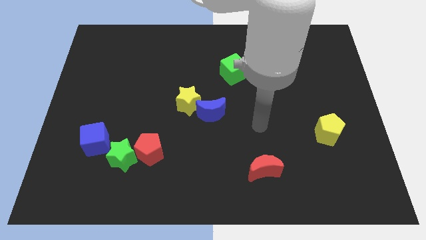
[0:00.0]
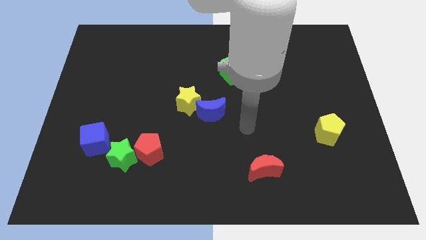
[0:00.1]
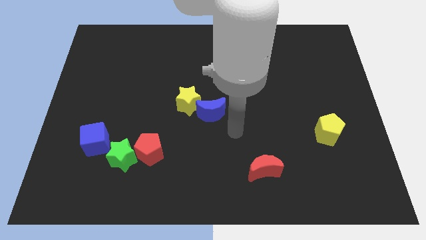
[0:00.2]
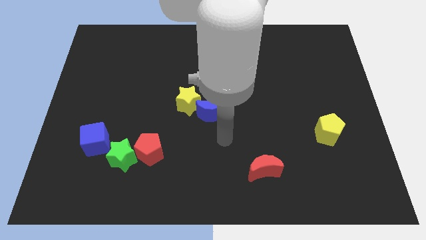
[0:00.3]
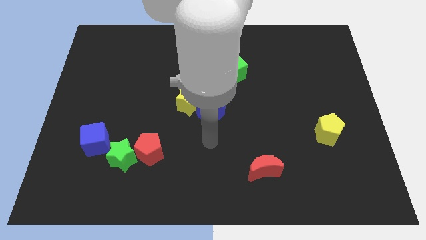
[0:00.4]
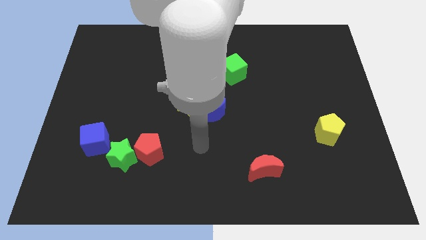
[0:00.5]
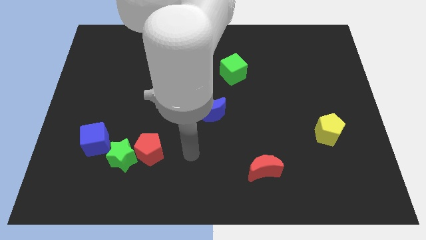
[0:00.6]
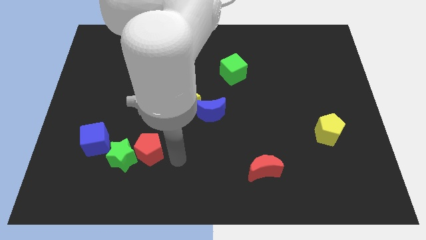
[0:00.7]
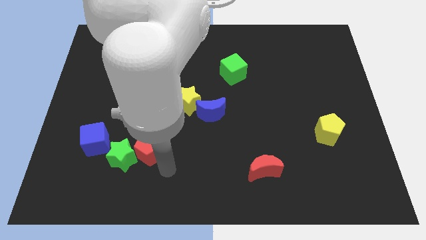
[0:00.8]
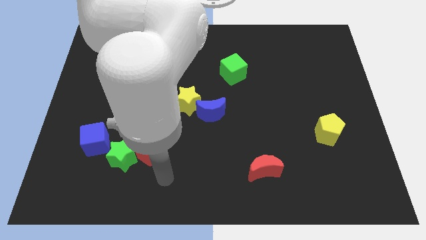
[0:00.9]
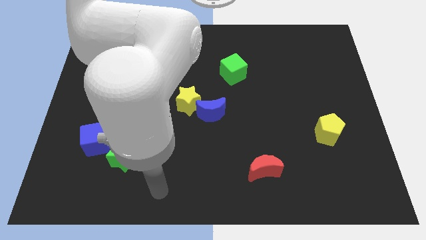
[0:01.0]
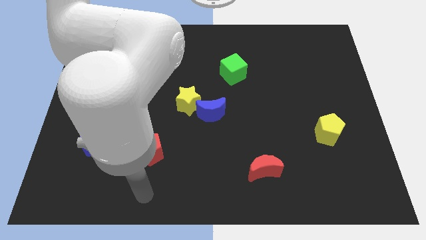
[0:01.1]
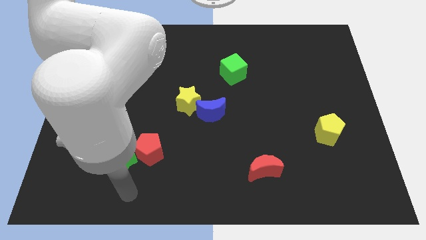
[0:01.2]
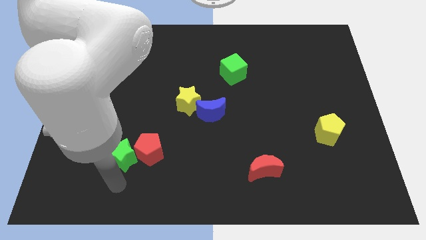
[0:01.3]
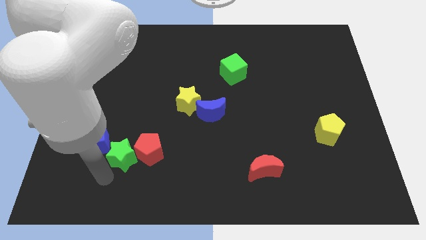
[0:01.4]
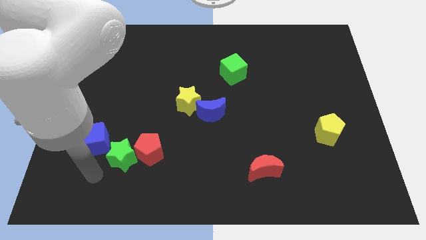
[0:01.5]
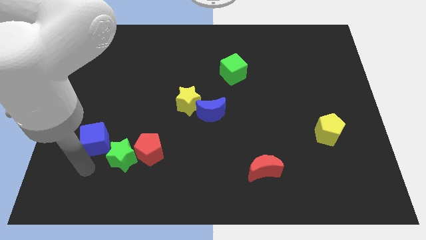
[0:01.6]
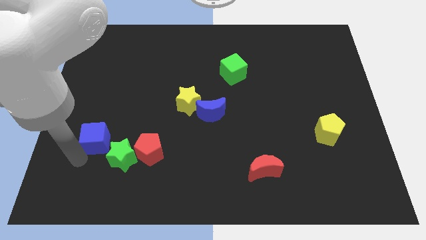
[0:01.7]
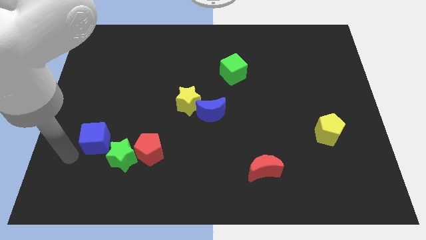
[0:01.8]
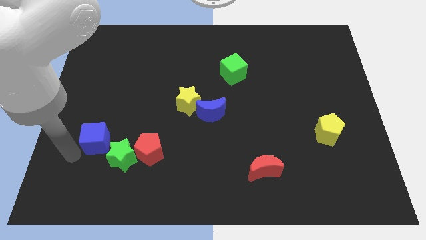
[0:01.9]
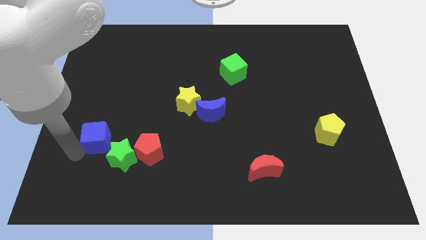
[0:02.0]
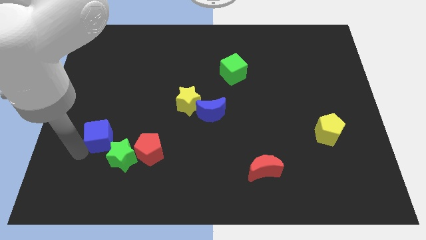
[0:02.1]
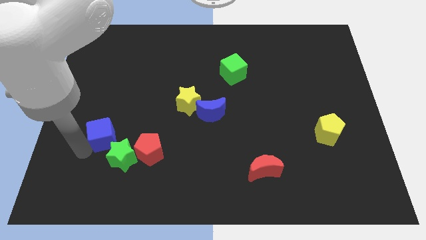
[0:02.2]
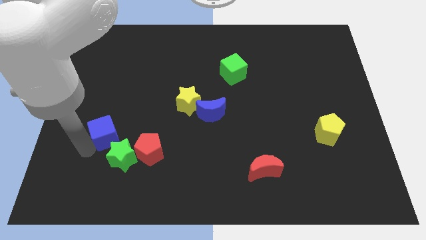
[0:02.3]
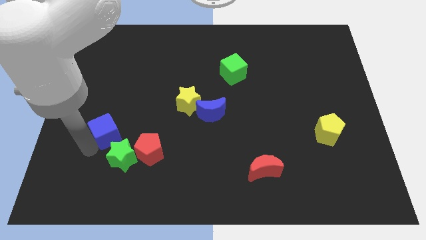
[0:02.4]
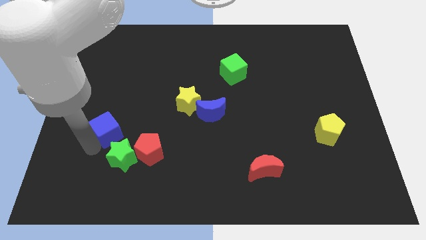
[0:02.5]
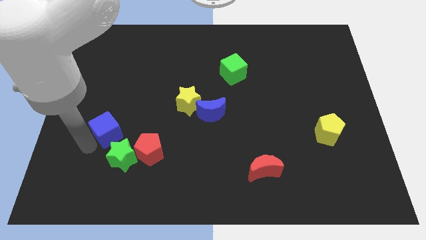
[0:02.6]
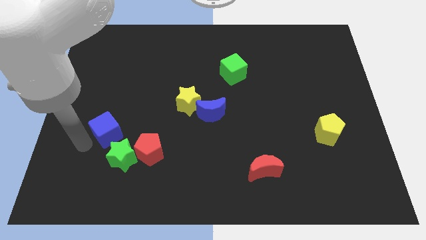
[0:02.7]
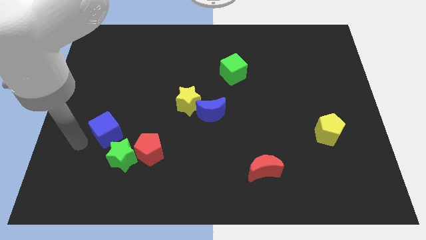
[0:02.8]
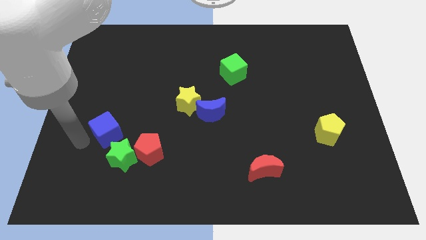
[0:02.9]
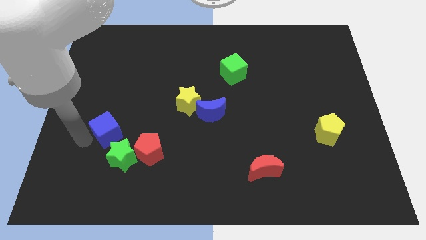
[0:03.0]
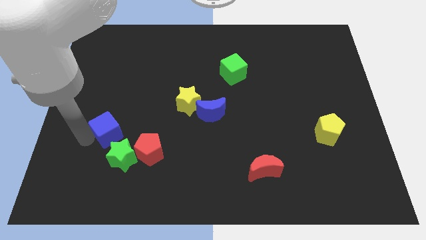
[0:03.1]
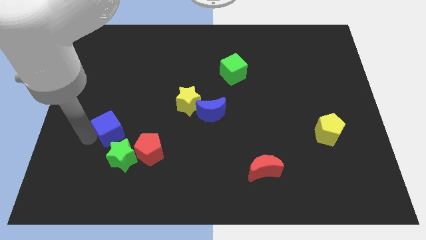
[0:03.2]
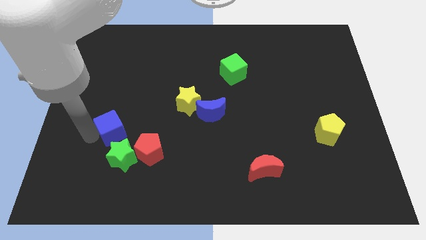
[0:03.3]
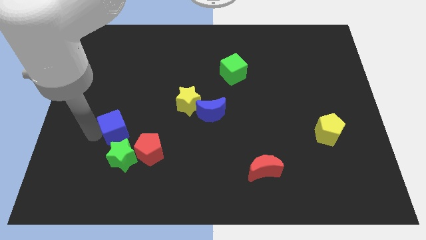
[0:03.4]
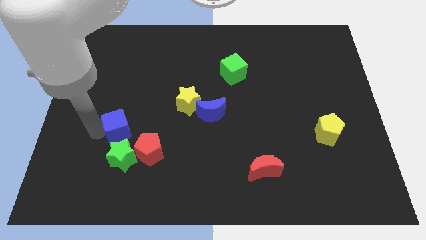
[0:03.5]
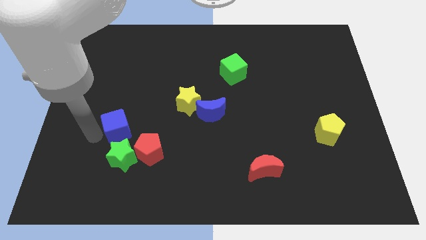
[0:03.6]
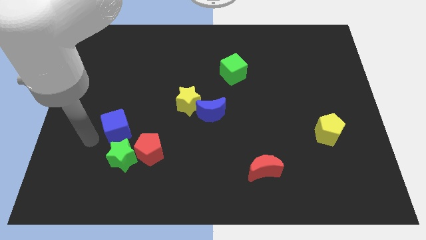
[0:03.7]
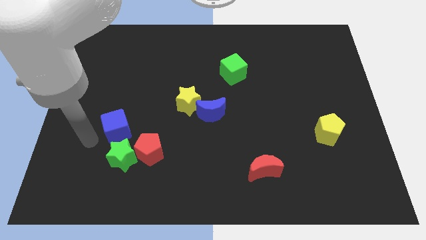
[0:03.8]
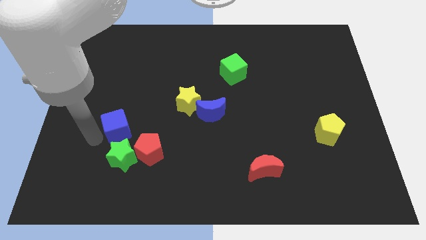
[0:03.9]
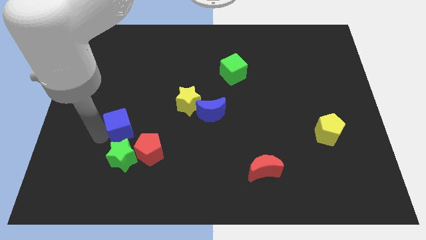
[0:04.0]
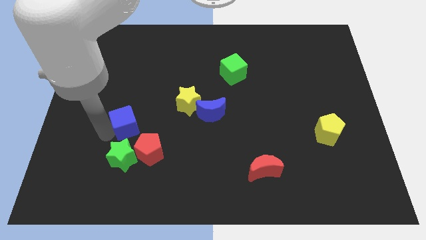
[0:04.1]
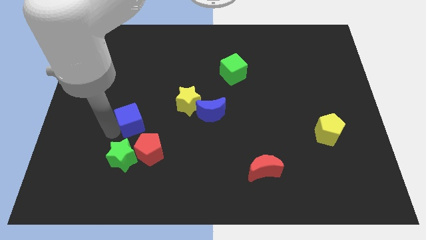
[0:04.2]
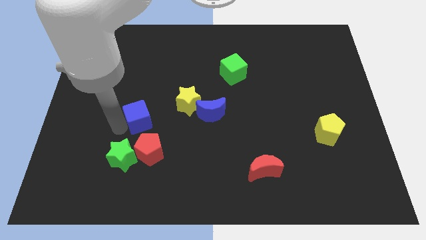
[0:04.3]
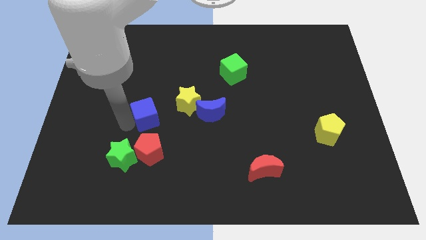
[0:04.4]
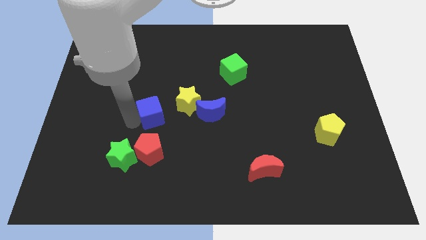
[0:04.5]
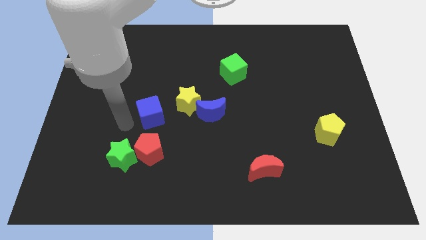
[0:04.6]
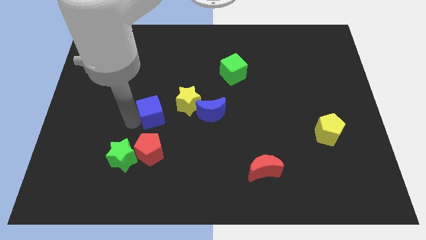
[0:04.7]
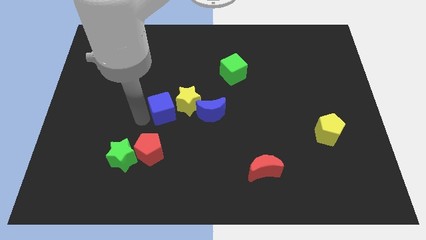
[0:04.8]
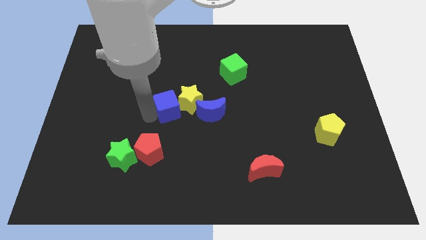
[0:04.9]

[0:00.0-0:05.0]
slide the blue cube close to the yellow star

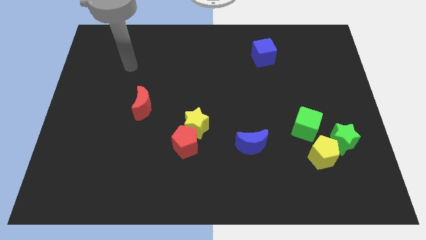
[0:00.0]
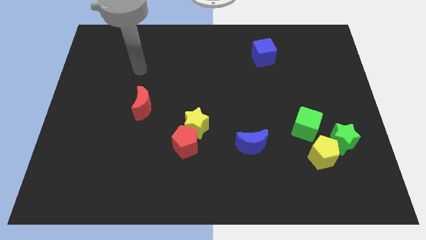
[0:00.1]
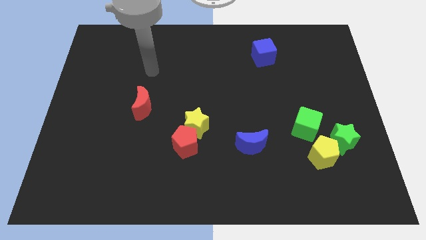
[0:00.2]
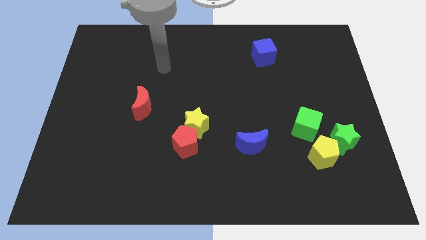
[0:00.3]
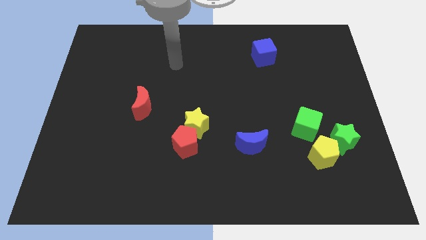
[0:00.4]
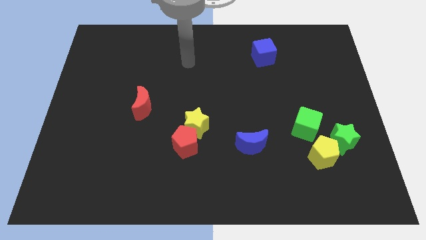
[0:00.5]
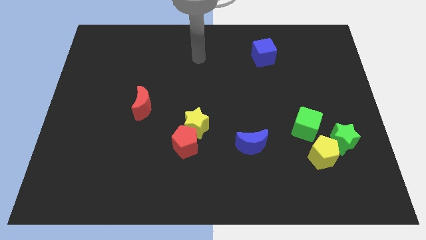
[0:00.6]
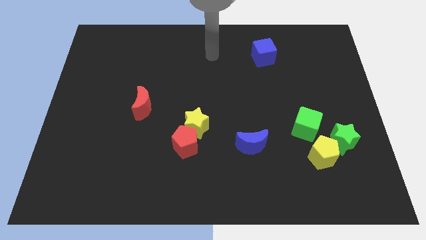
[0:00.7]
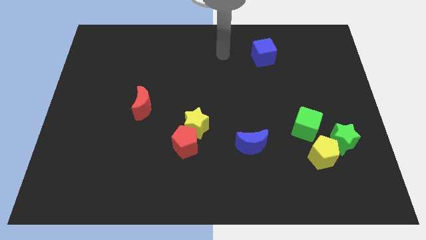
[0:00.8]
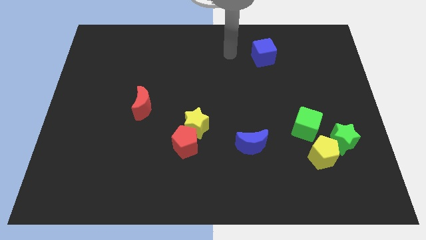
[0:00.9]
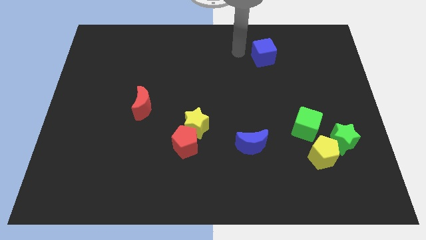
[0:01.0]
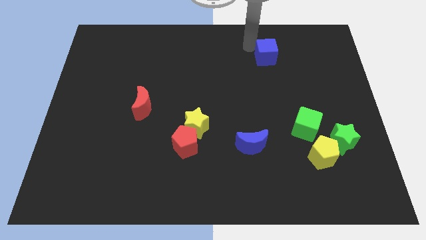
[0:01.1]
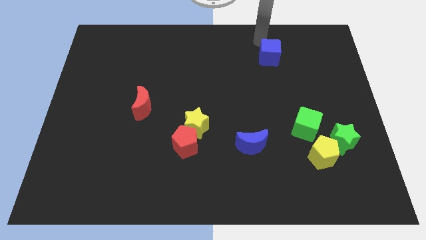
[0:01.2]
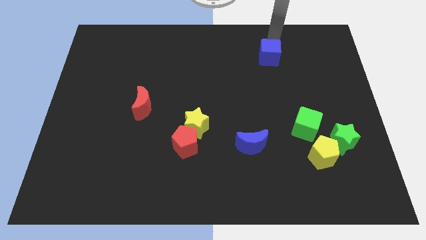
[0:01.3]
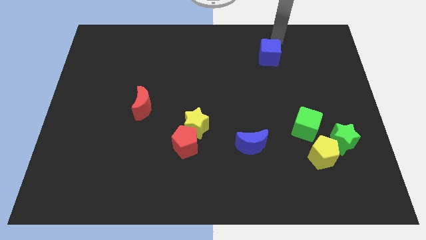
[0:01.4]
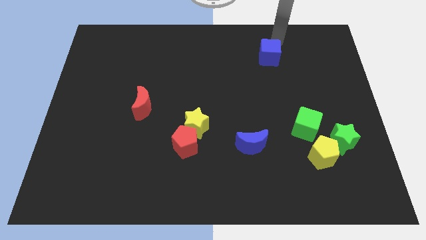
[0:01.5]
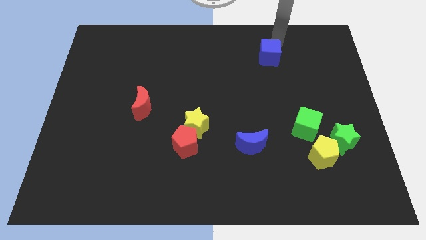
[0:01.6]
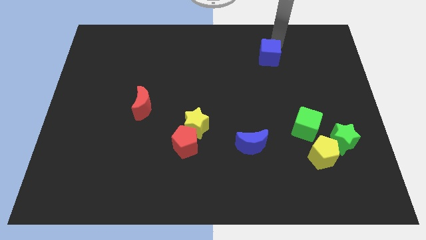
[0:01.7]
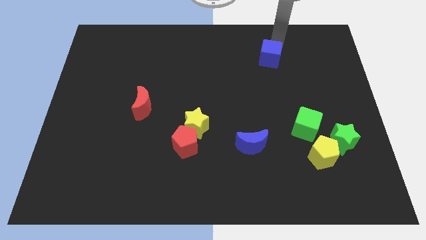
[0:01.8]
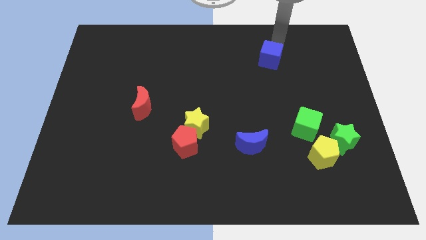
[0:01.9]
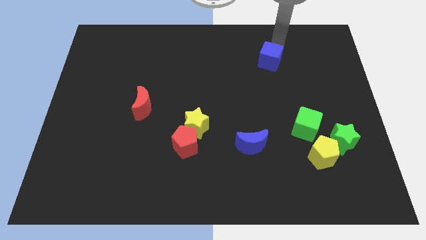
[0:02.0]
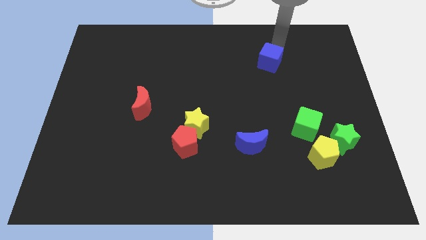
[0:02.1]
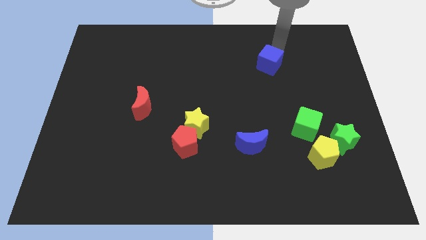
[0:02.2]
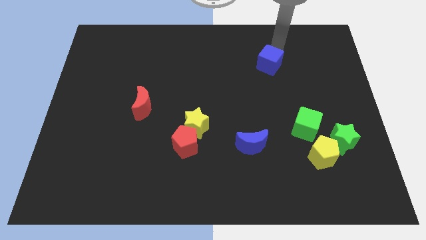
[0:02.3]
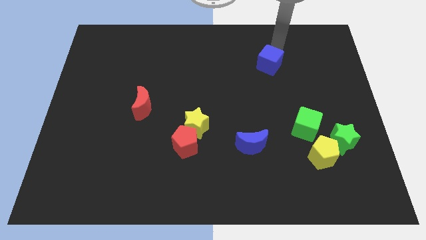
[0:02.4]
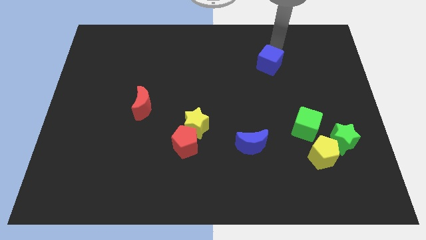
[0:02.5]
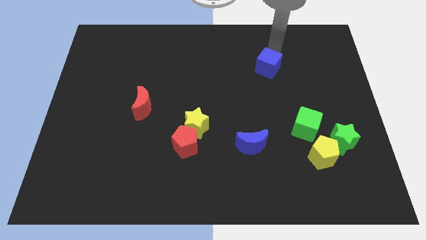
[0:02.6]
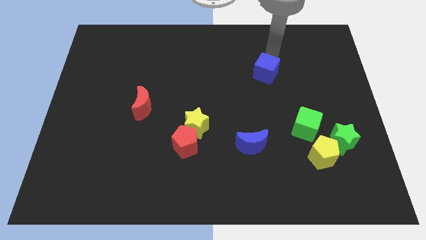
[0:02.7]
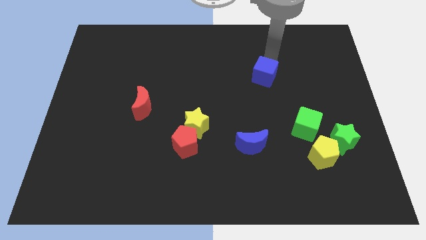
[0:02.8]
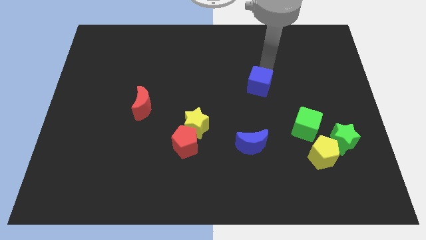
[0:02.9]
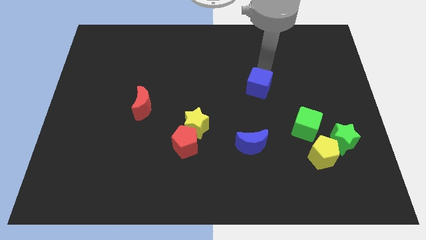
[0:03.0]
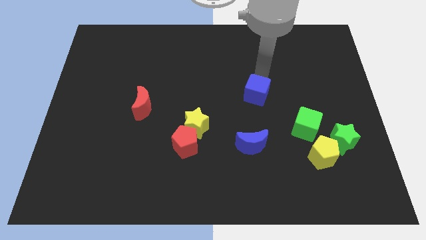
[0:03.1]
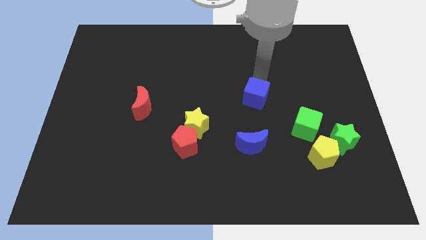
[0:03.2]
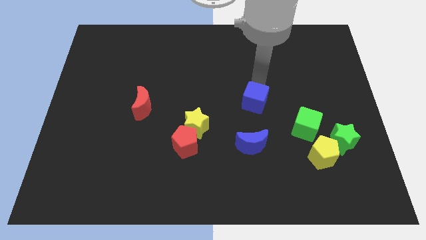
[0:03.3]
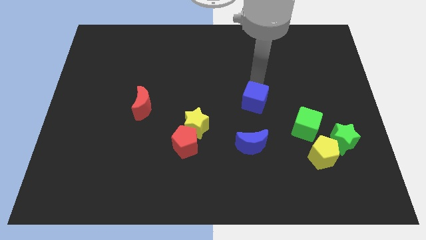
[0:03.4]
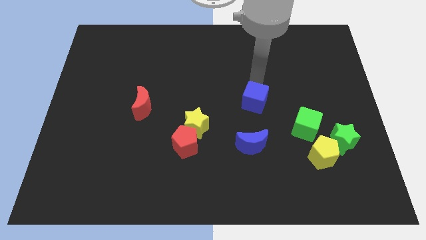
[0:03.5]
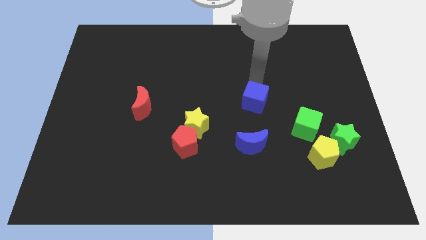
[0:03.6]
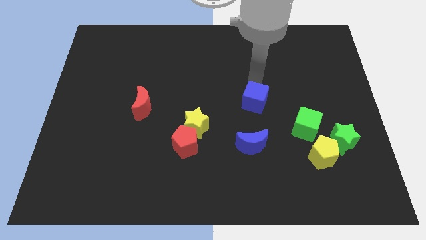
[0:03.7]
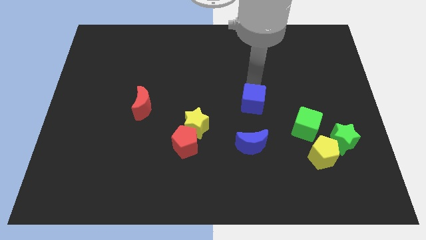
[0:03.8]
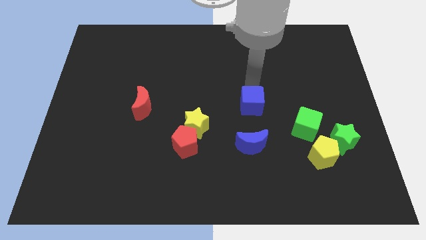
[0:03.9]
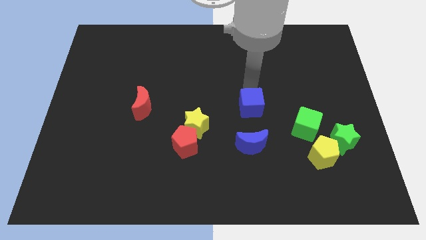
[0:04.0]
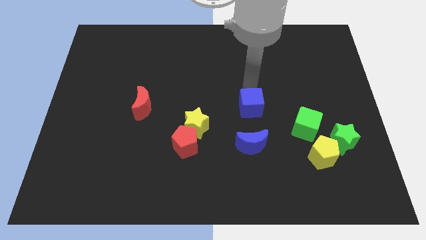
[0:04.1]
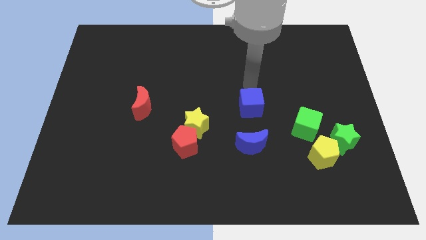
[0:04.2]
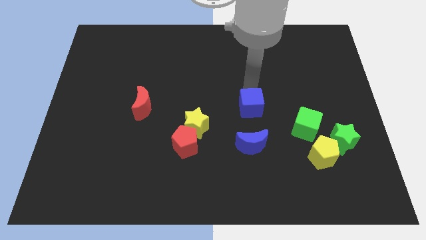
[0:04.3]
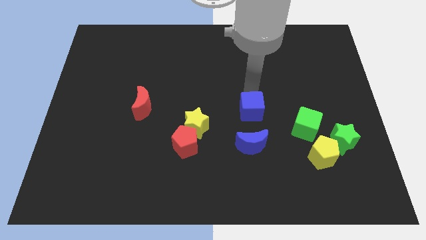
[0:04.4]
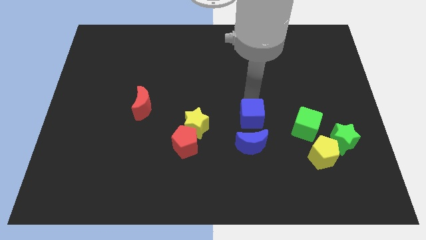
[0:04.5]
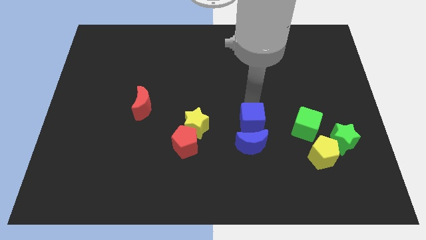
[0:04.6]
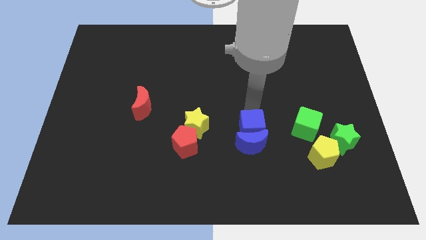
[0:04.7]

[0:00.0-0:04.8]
put the blue cube towards the blue moon
